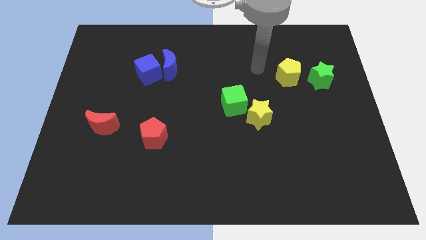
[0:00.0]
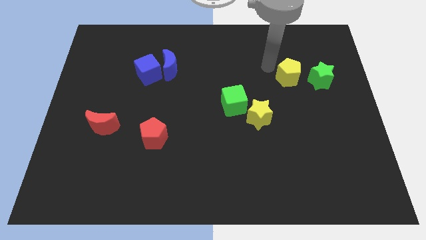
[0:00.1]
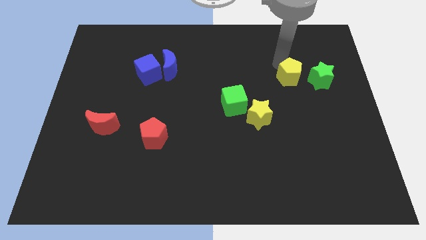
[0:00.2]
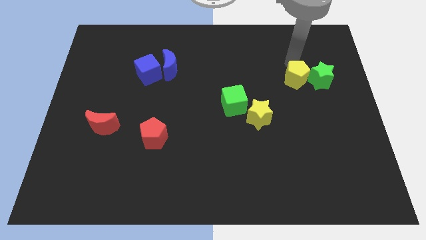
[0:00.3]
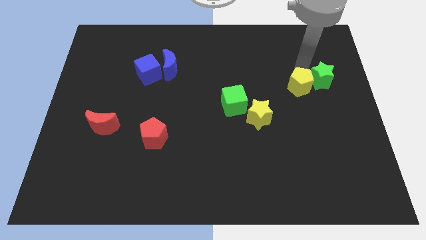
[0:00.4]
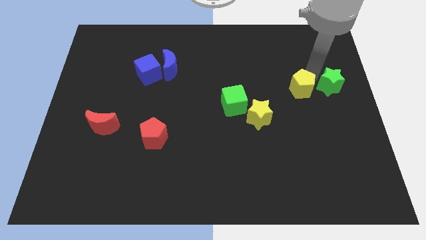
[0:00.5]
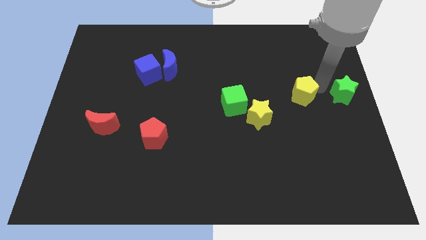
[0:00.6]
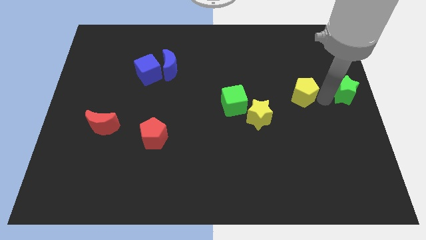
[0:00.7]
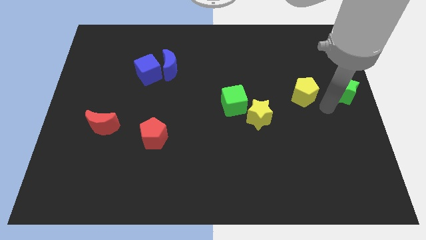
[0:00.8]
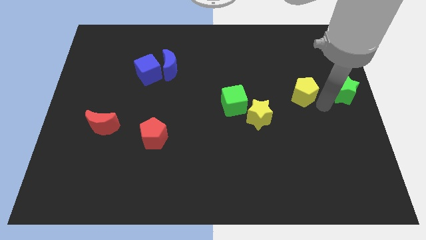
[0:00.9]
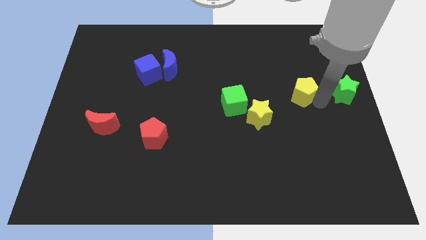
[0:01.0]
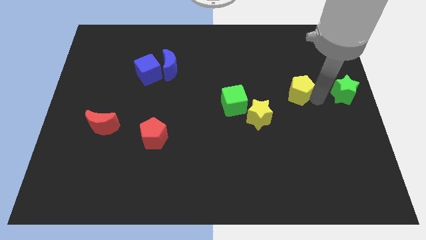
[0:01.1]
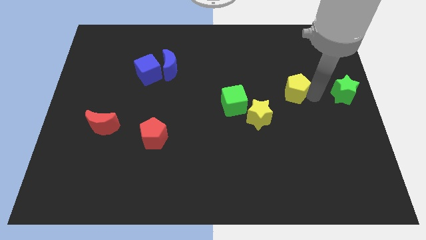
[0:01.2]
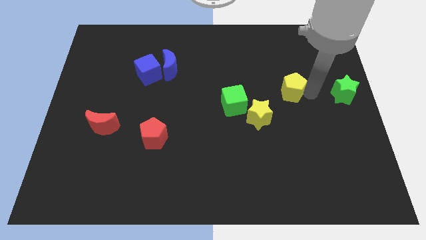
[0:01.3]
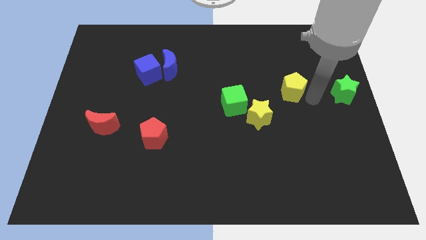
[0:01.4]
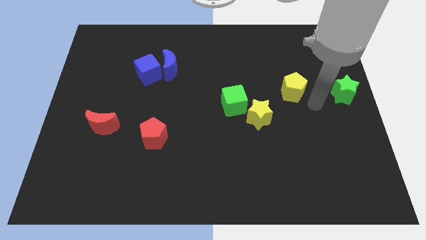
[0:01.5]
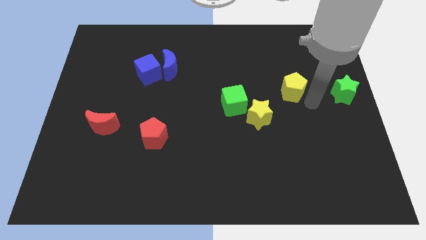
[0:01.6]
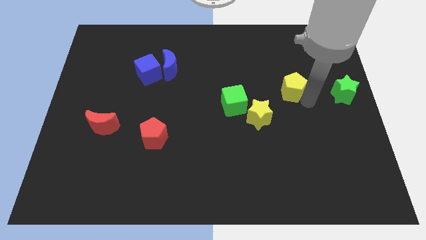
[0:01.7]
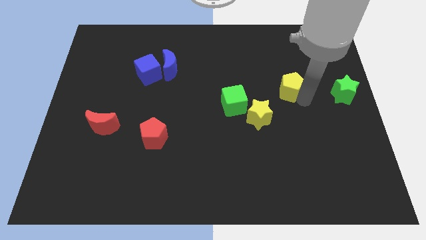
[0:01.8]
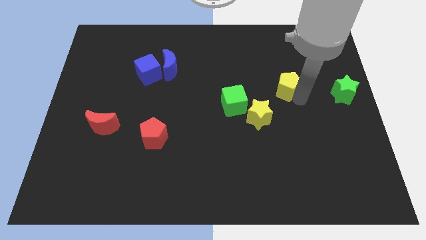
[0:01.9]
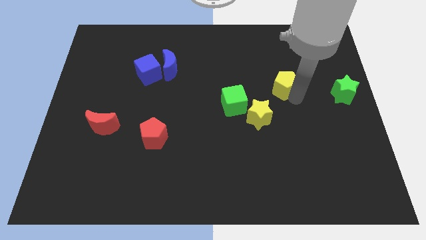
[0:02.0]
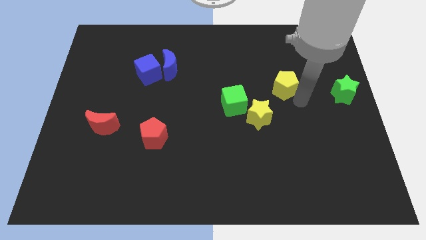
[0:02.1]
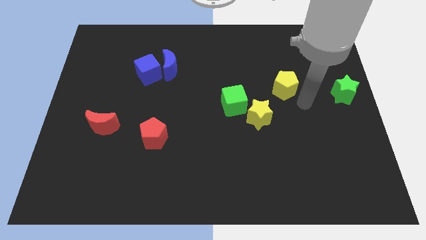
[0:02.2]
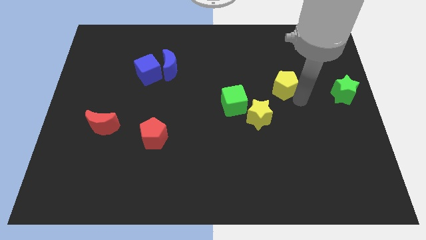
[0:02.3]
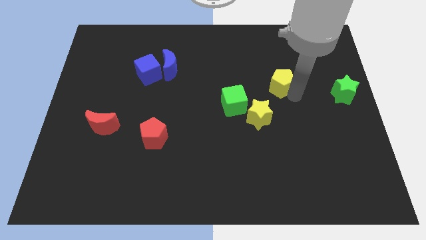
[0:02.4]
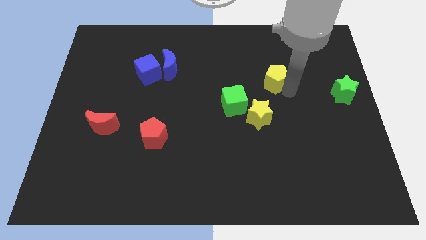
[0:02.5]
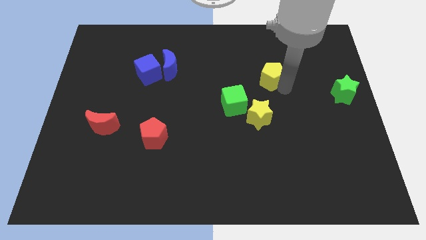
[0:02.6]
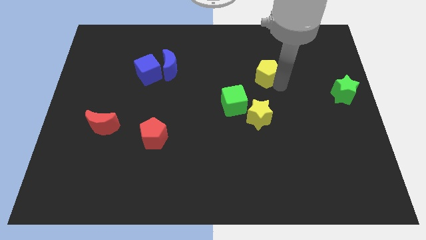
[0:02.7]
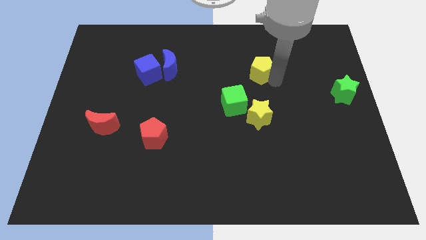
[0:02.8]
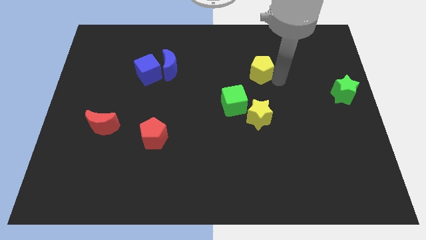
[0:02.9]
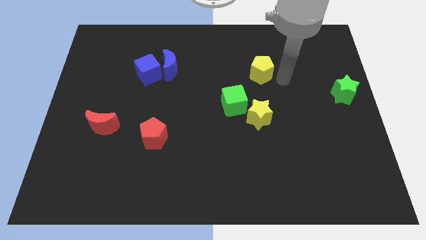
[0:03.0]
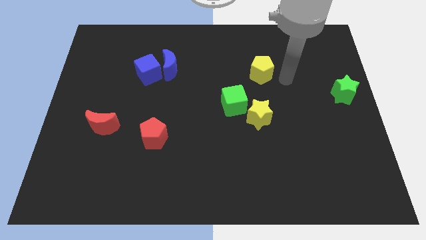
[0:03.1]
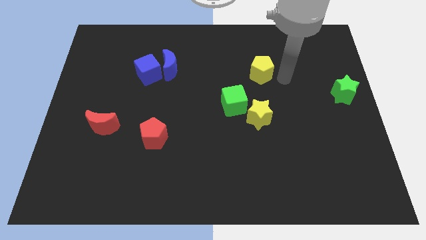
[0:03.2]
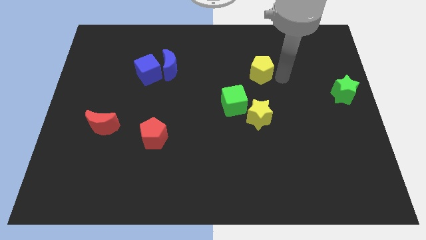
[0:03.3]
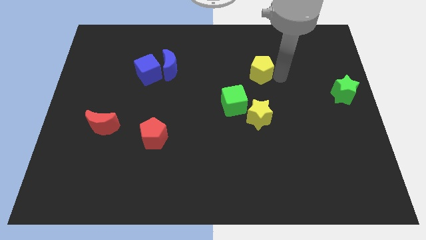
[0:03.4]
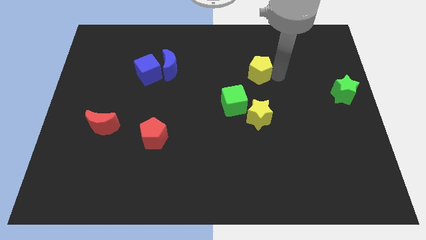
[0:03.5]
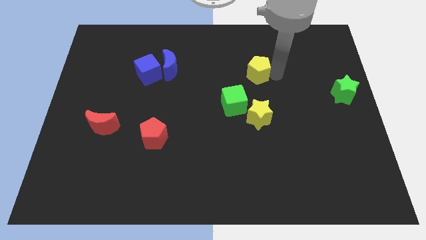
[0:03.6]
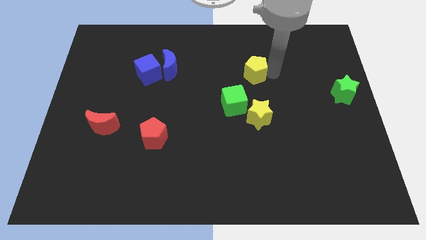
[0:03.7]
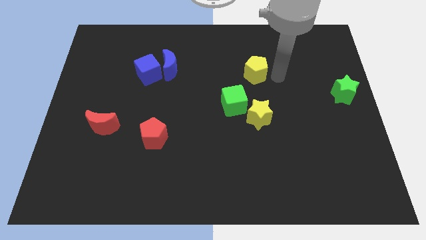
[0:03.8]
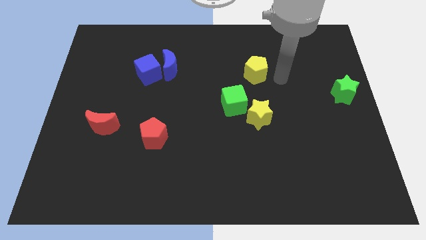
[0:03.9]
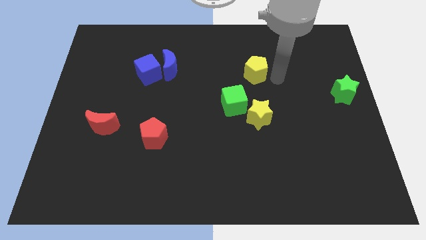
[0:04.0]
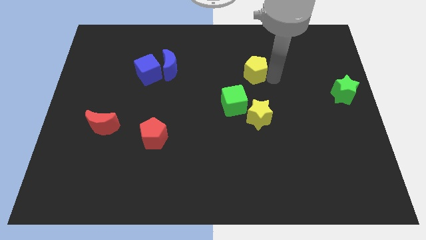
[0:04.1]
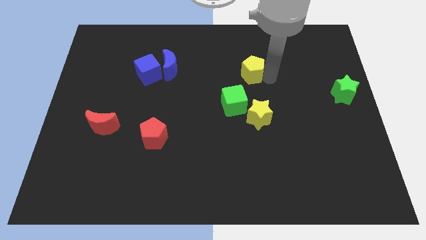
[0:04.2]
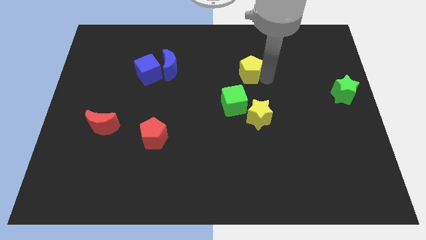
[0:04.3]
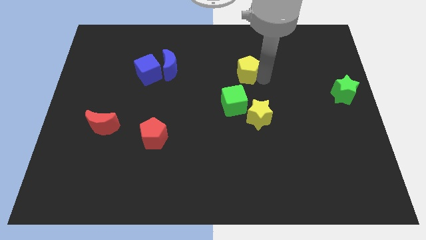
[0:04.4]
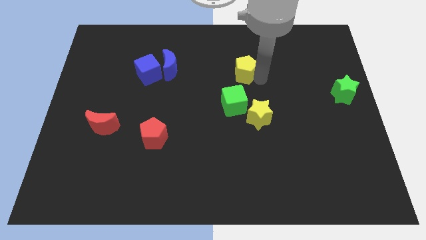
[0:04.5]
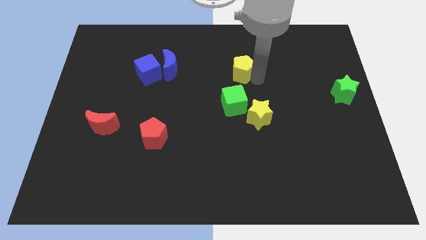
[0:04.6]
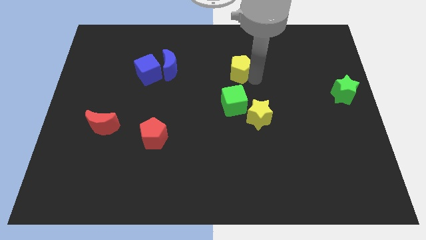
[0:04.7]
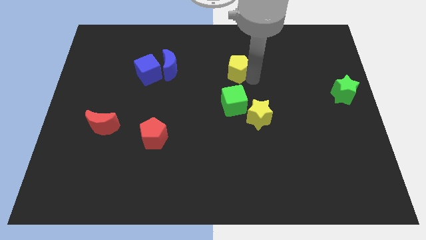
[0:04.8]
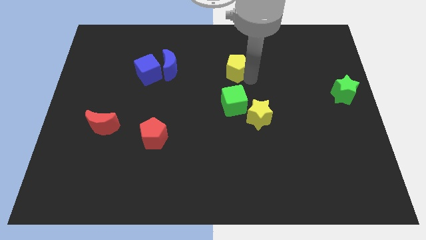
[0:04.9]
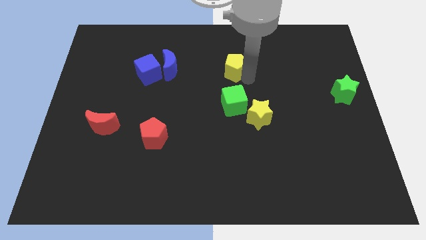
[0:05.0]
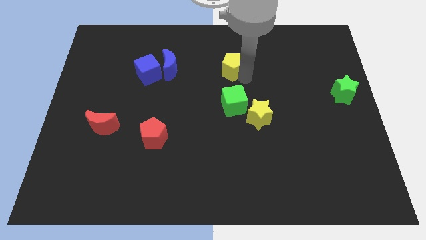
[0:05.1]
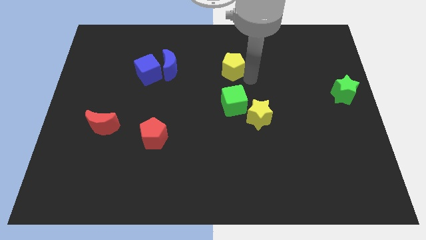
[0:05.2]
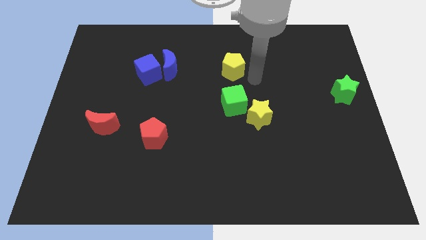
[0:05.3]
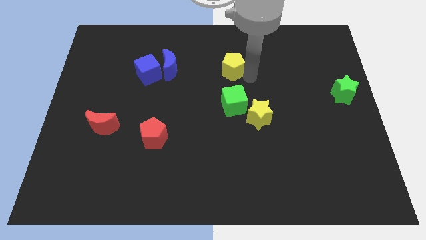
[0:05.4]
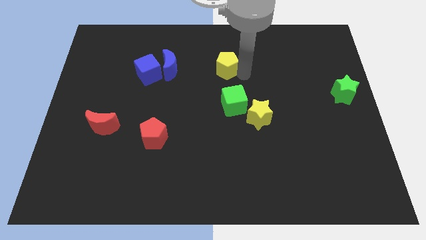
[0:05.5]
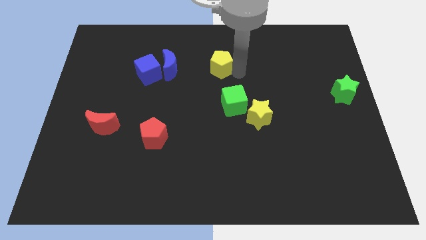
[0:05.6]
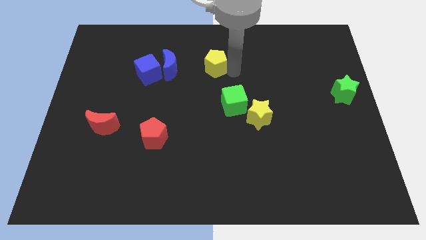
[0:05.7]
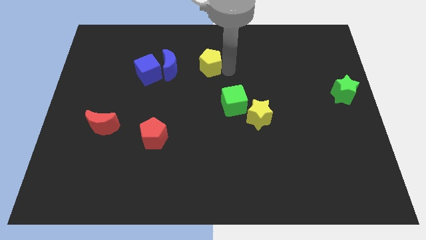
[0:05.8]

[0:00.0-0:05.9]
move the yellow pentagon to the right of the blue cube
